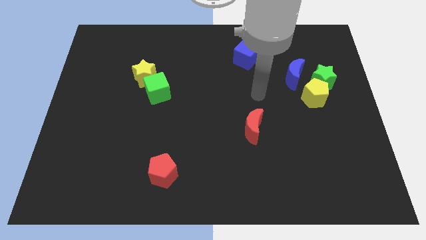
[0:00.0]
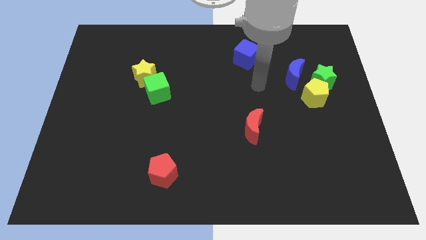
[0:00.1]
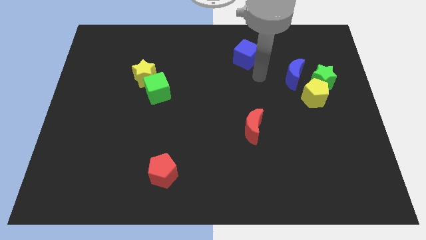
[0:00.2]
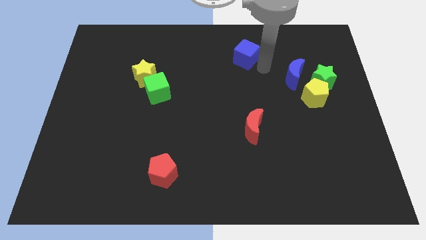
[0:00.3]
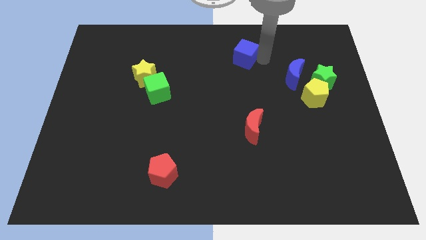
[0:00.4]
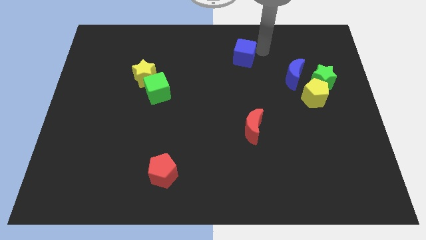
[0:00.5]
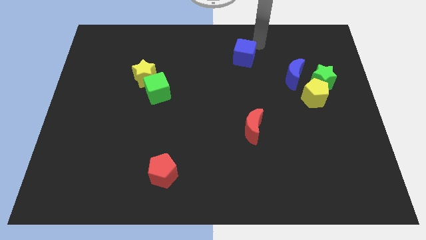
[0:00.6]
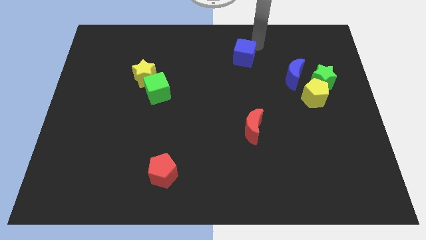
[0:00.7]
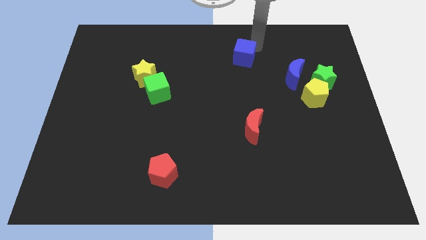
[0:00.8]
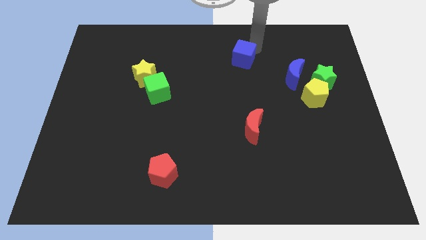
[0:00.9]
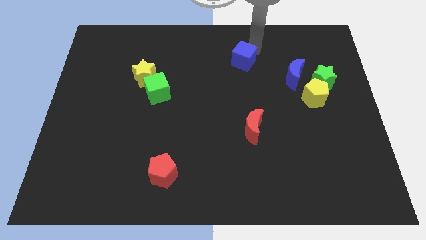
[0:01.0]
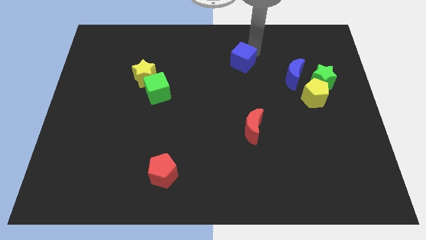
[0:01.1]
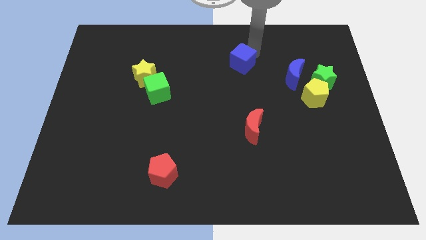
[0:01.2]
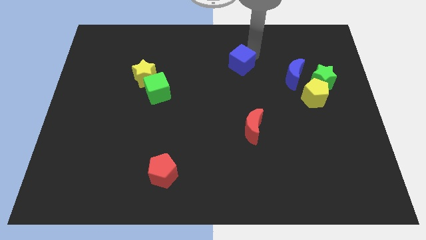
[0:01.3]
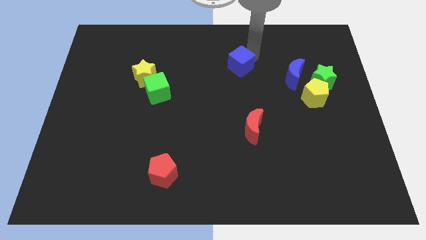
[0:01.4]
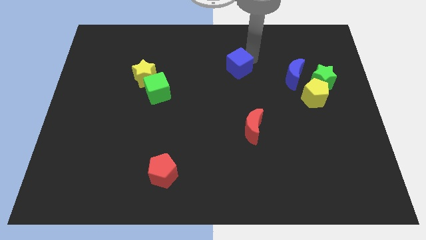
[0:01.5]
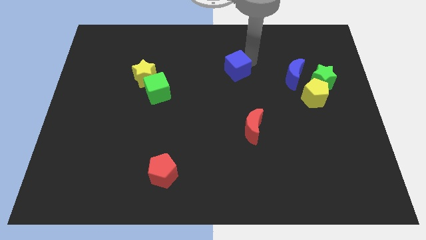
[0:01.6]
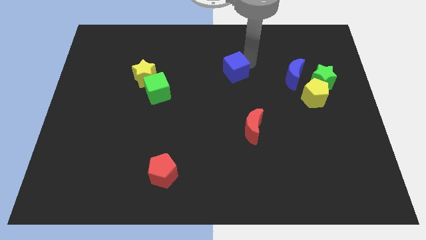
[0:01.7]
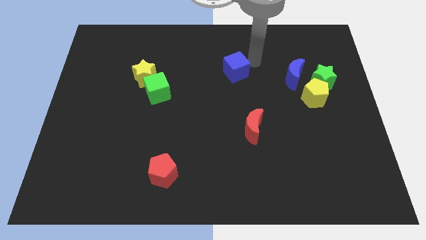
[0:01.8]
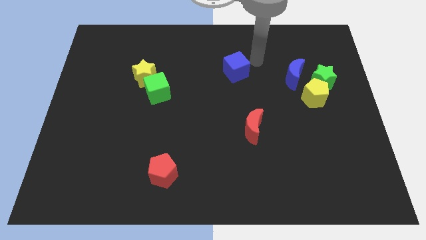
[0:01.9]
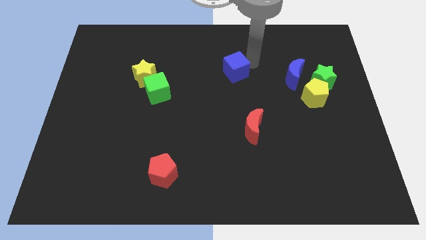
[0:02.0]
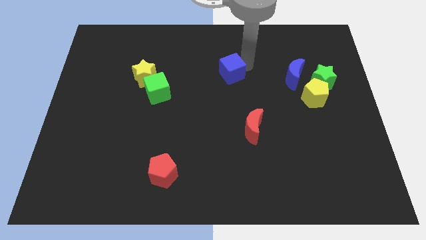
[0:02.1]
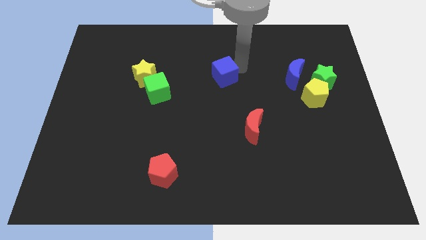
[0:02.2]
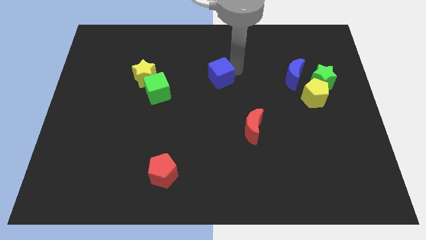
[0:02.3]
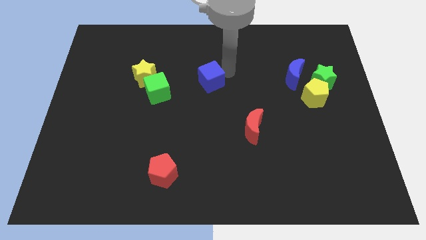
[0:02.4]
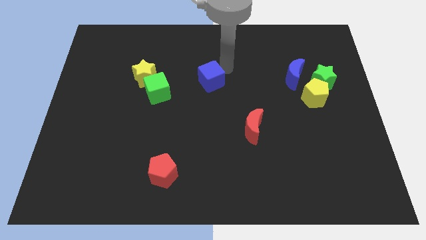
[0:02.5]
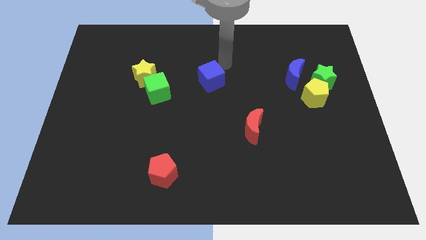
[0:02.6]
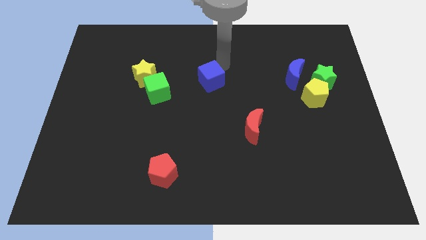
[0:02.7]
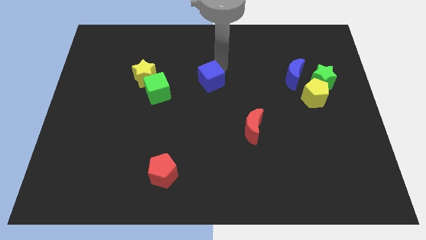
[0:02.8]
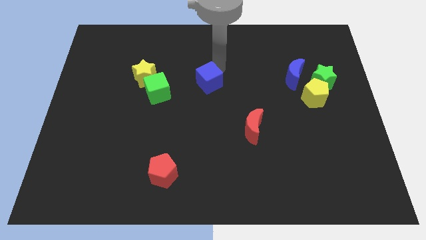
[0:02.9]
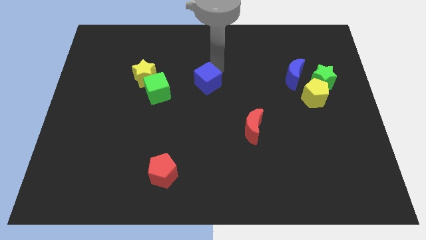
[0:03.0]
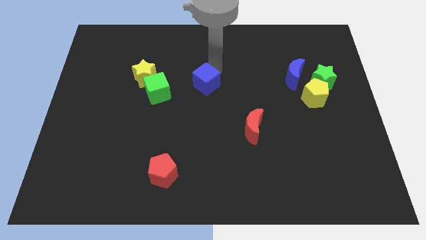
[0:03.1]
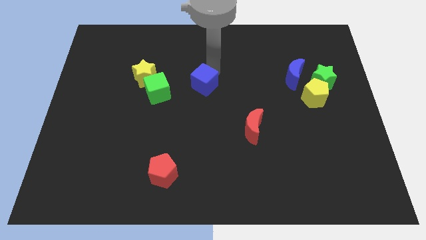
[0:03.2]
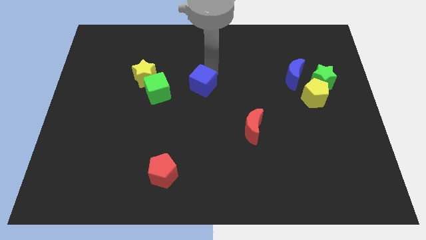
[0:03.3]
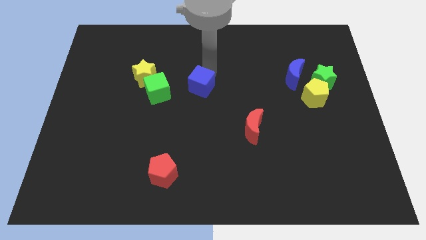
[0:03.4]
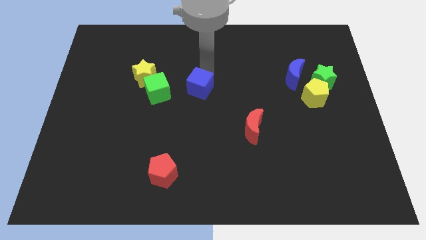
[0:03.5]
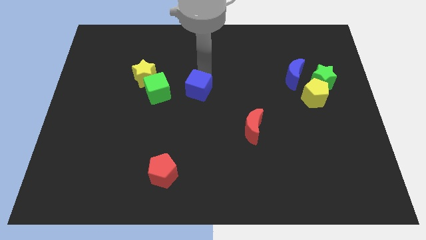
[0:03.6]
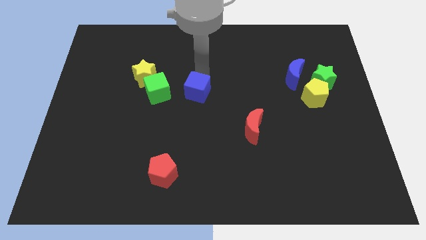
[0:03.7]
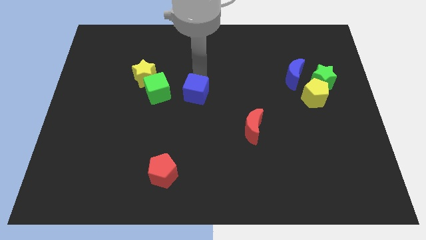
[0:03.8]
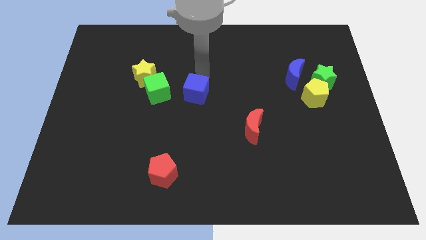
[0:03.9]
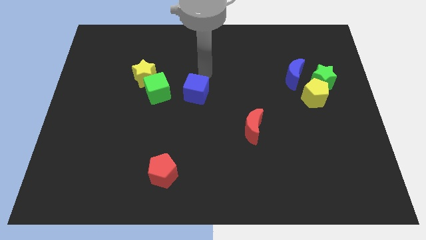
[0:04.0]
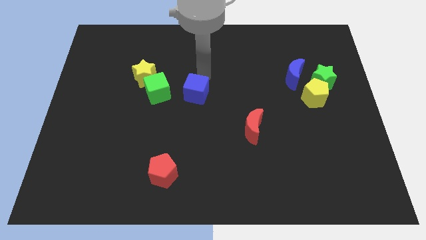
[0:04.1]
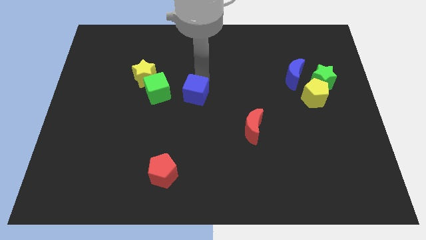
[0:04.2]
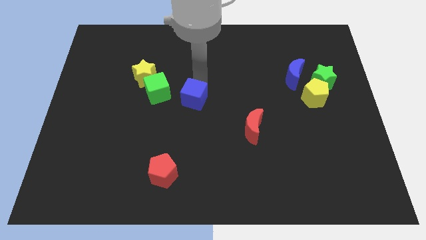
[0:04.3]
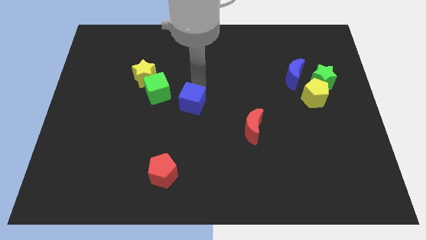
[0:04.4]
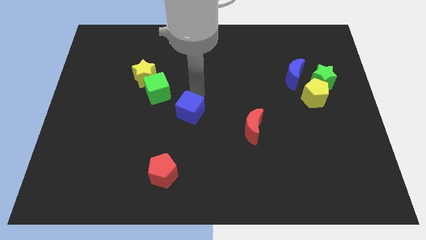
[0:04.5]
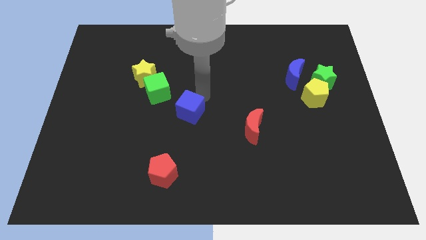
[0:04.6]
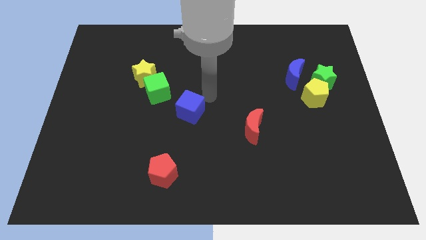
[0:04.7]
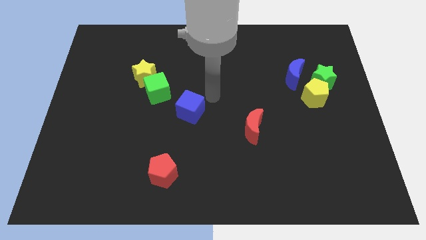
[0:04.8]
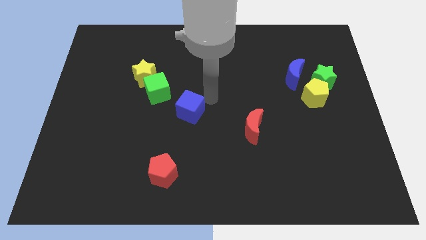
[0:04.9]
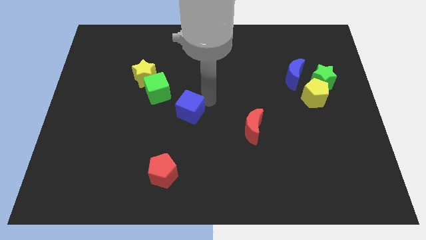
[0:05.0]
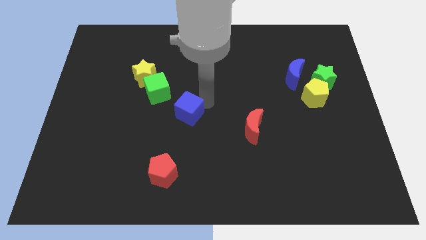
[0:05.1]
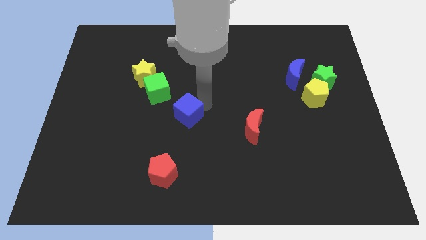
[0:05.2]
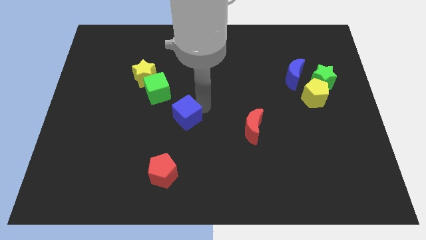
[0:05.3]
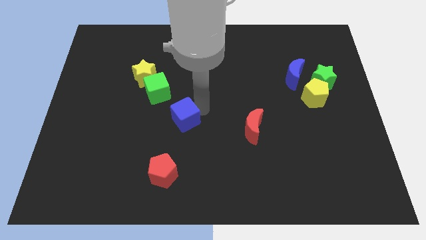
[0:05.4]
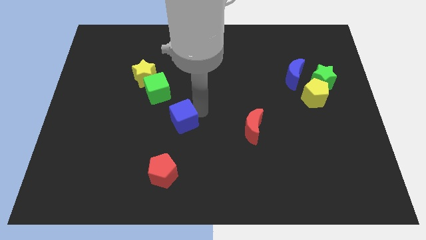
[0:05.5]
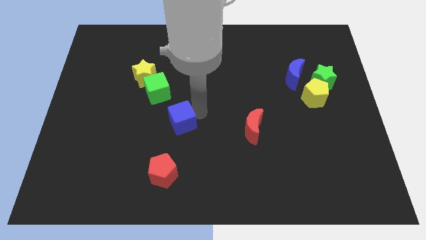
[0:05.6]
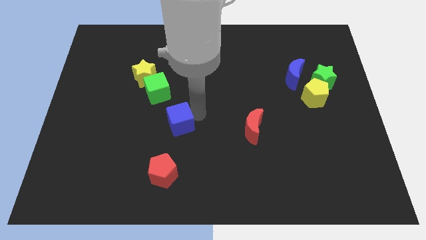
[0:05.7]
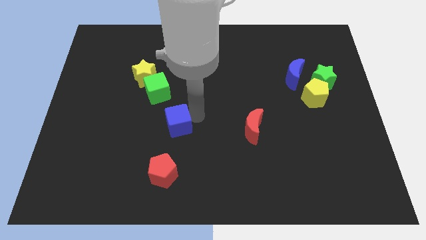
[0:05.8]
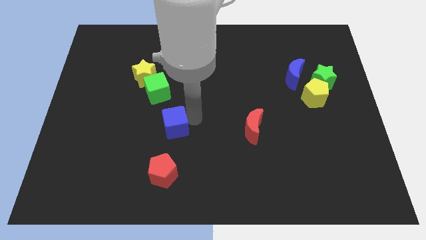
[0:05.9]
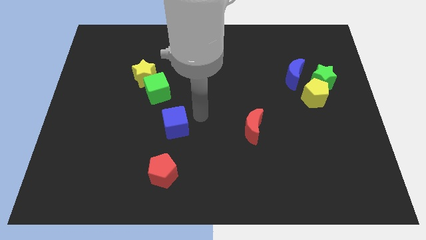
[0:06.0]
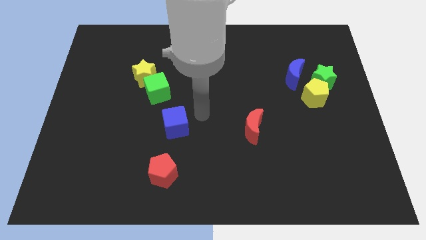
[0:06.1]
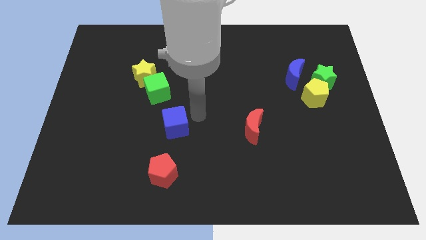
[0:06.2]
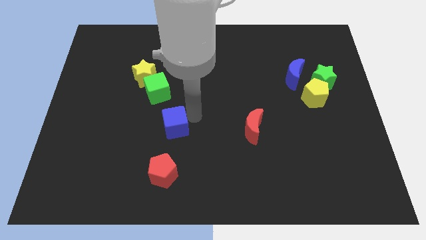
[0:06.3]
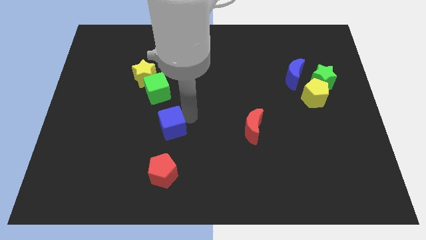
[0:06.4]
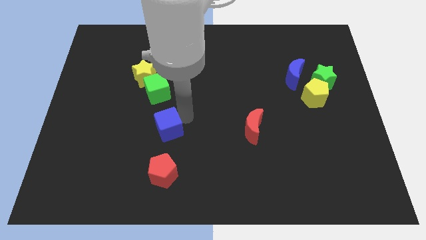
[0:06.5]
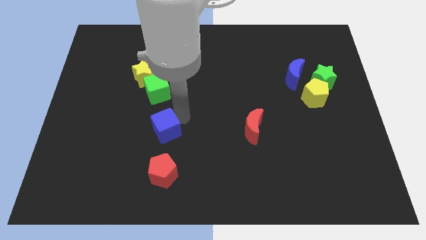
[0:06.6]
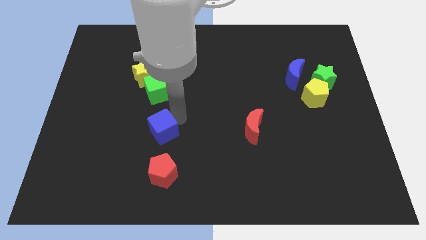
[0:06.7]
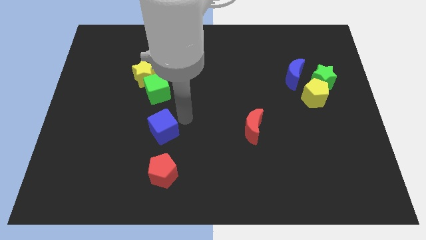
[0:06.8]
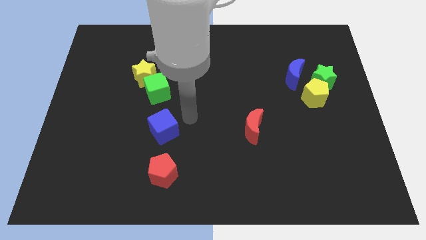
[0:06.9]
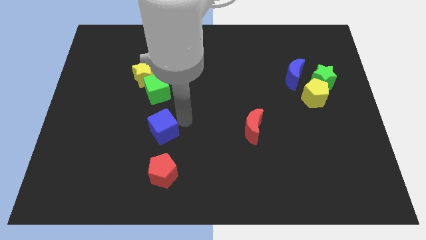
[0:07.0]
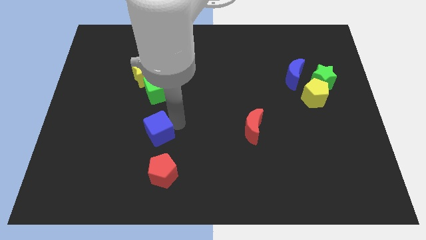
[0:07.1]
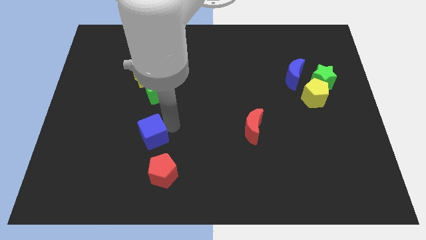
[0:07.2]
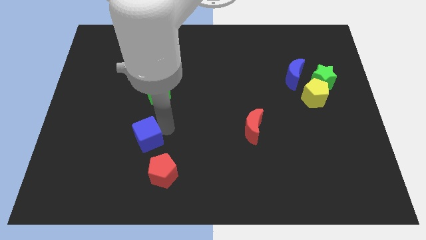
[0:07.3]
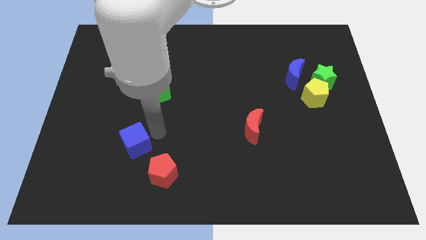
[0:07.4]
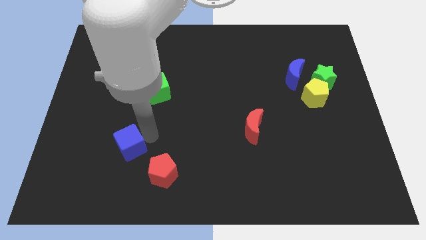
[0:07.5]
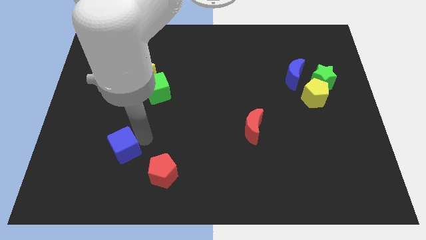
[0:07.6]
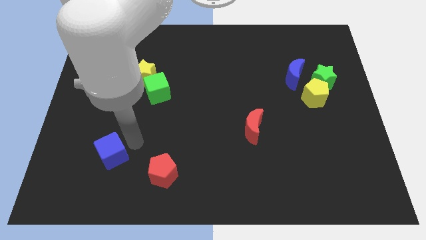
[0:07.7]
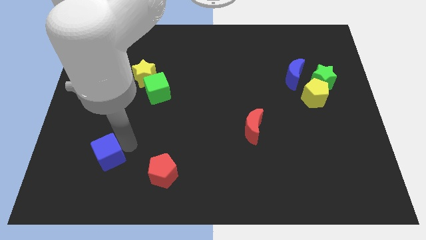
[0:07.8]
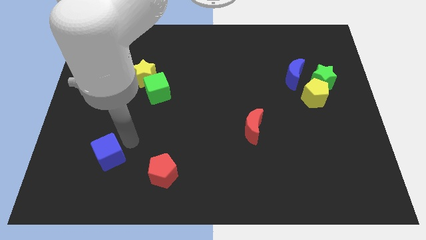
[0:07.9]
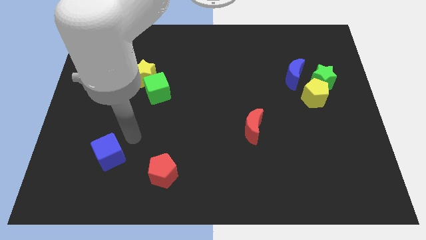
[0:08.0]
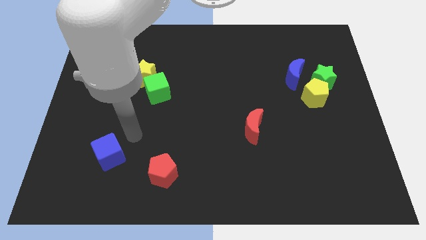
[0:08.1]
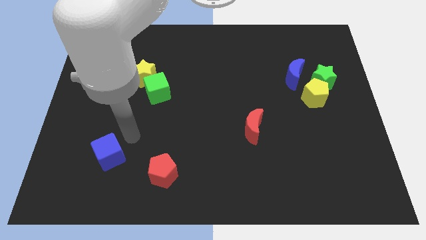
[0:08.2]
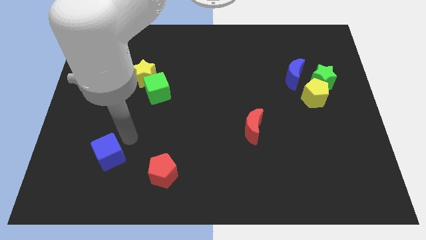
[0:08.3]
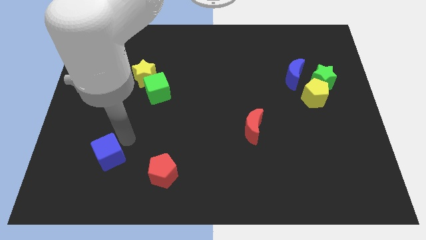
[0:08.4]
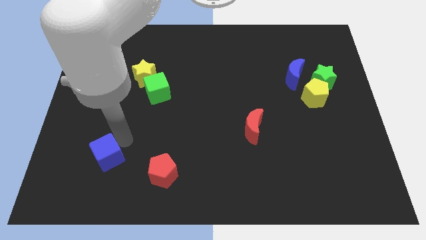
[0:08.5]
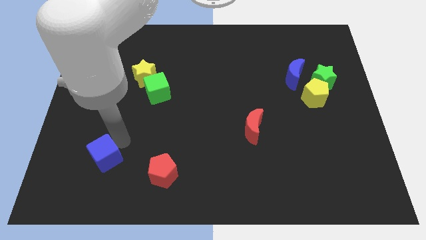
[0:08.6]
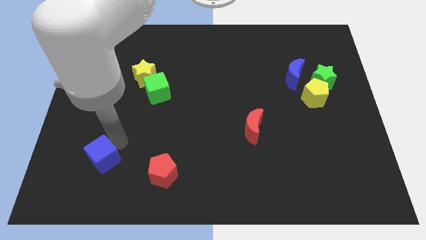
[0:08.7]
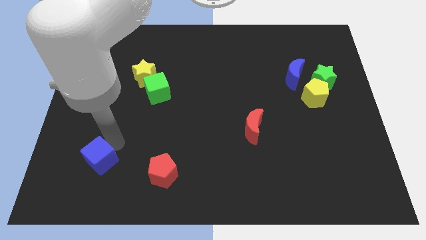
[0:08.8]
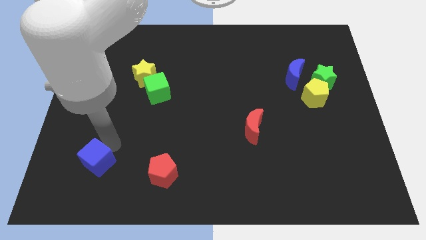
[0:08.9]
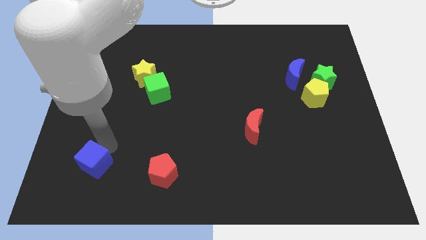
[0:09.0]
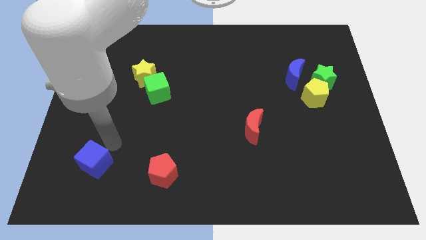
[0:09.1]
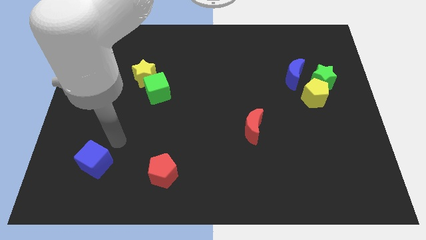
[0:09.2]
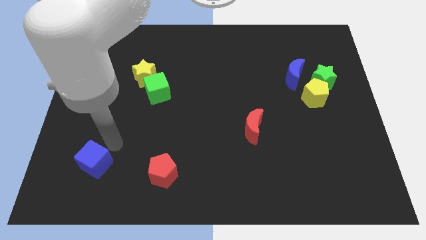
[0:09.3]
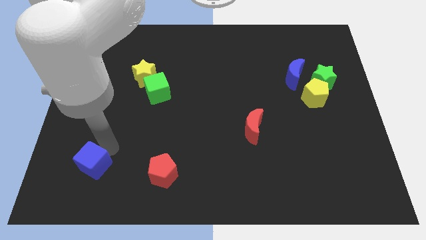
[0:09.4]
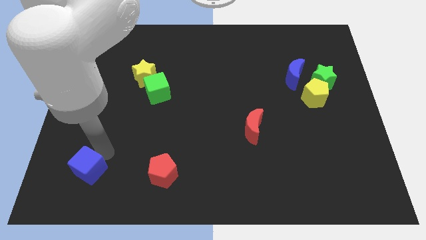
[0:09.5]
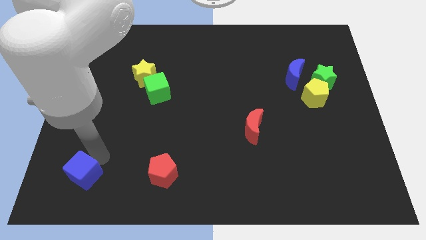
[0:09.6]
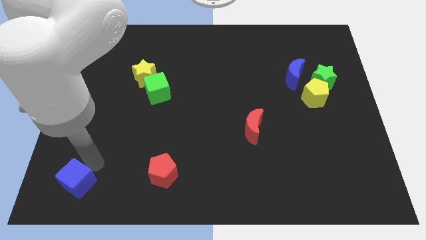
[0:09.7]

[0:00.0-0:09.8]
push the blue cube to the lower left corner
